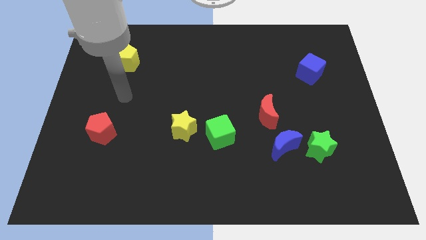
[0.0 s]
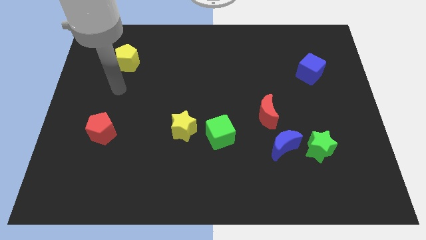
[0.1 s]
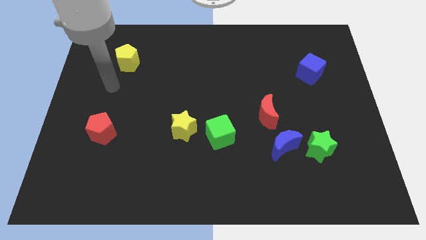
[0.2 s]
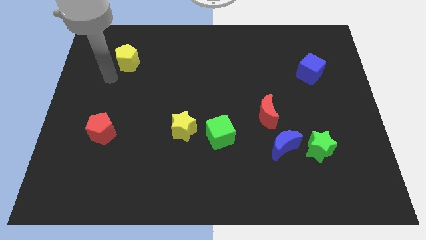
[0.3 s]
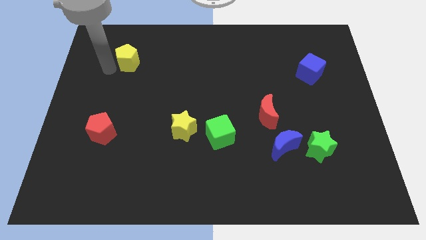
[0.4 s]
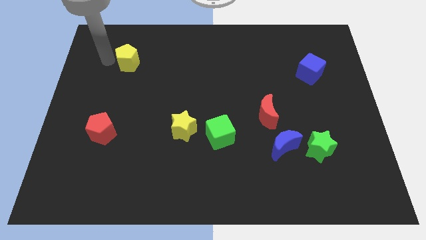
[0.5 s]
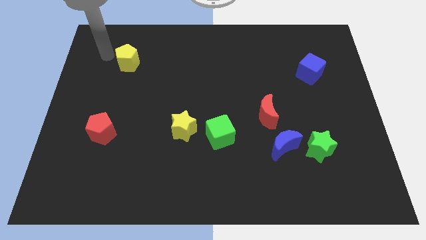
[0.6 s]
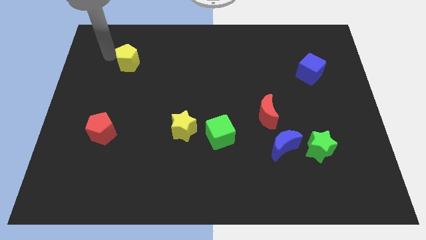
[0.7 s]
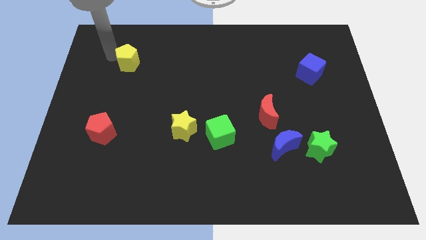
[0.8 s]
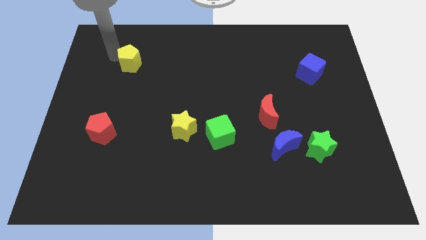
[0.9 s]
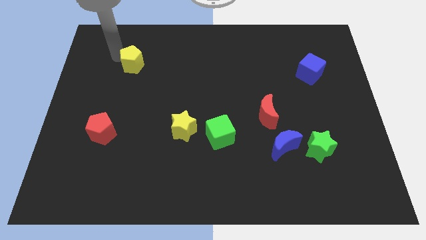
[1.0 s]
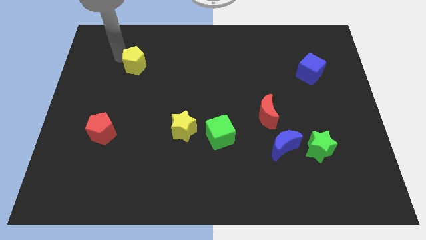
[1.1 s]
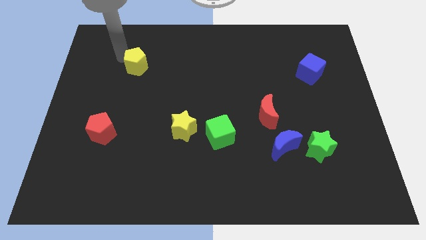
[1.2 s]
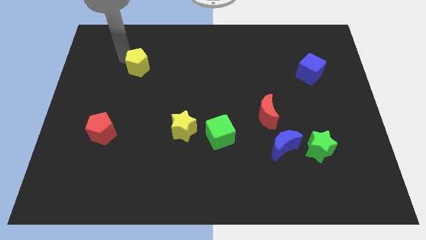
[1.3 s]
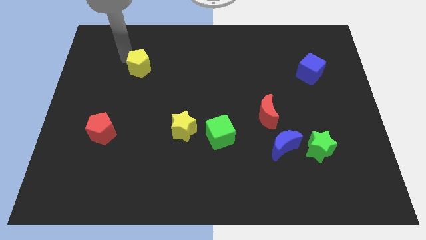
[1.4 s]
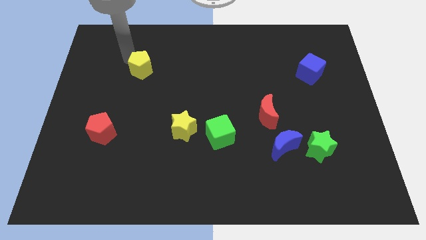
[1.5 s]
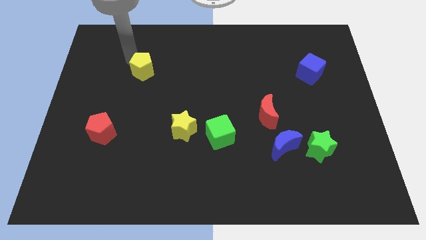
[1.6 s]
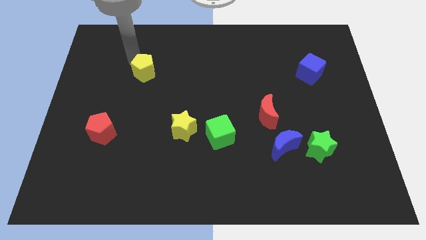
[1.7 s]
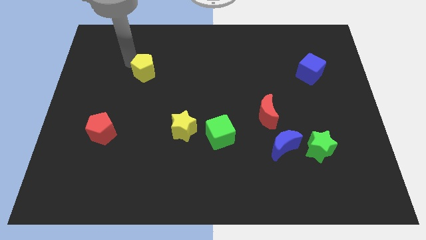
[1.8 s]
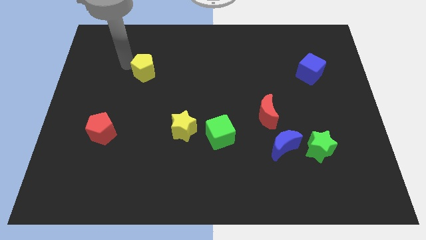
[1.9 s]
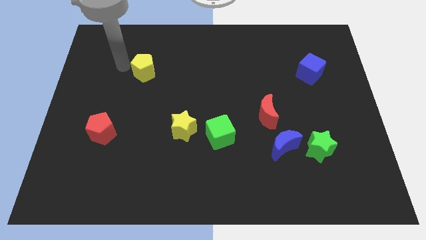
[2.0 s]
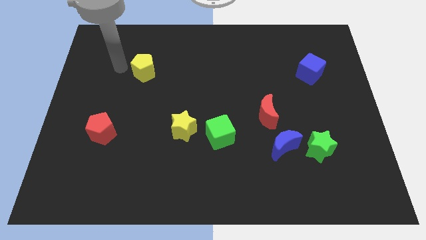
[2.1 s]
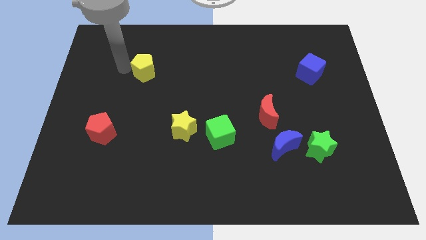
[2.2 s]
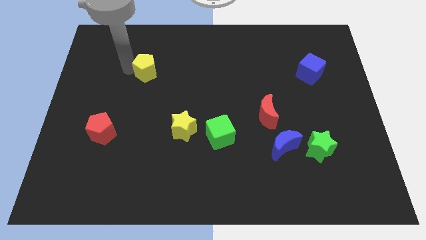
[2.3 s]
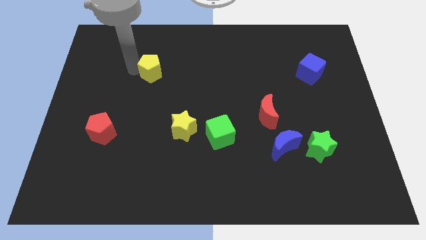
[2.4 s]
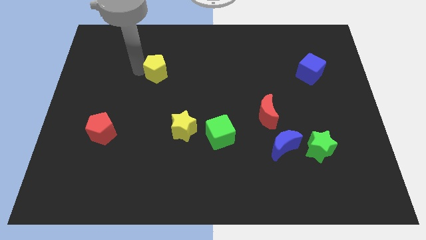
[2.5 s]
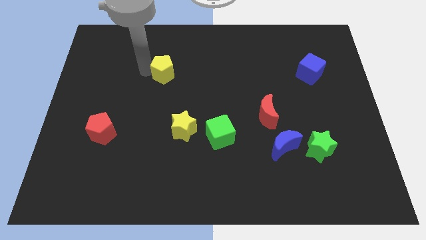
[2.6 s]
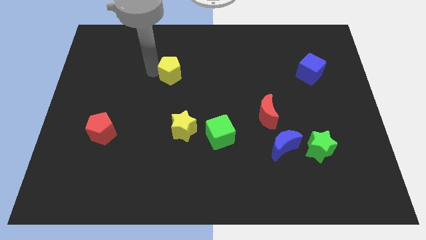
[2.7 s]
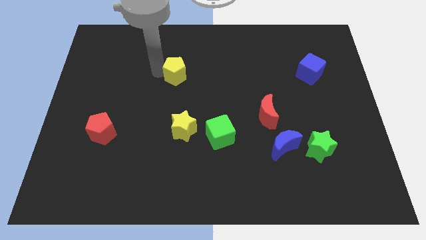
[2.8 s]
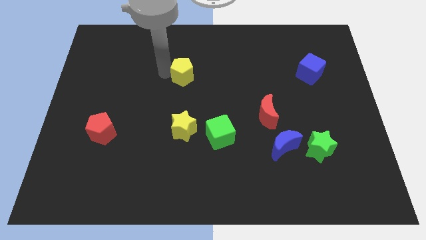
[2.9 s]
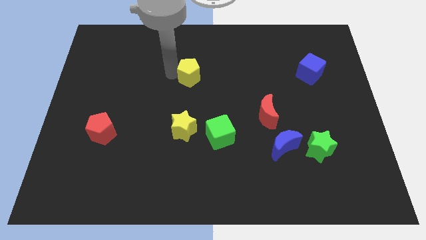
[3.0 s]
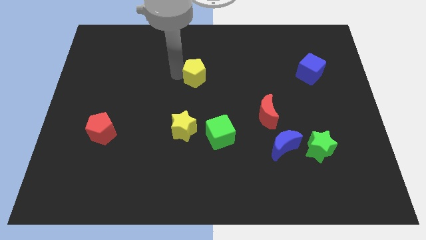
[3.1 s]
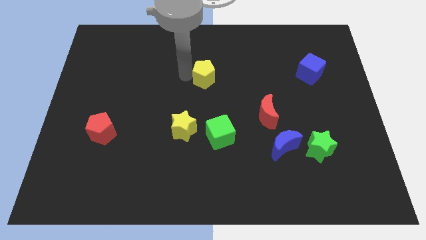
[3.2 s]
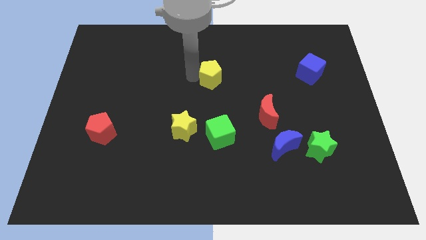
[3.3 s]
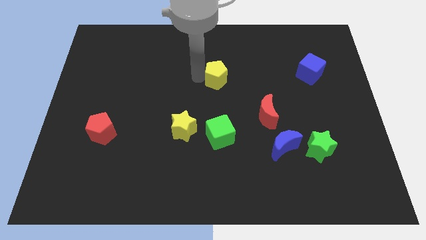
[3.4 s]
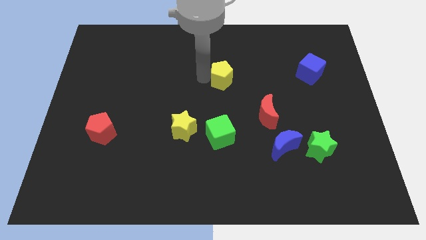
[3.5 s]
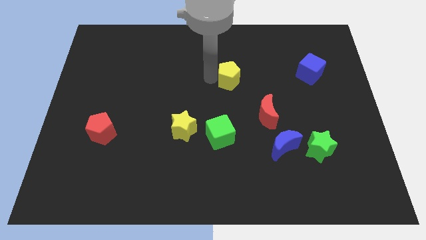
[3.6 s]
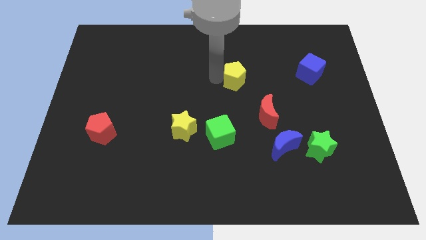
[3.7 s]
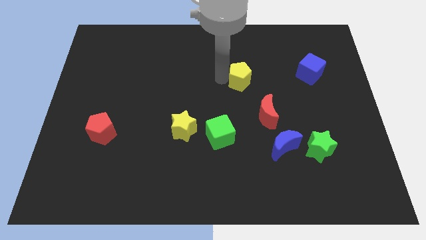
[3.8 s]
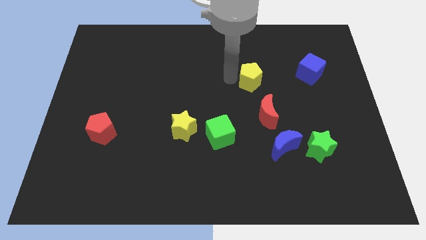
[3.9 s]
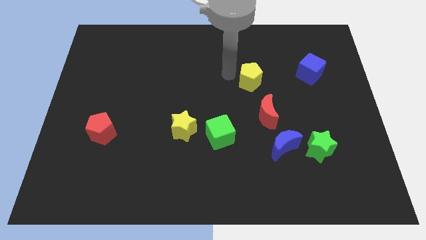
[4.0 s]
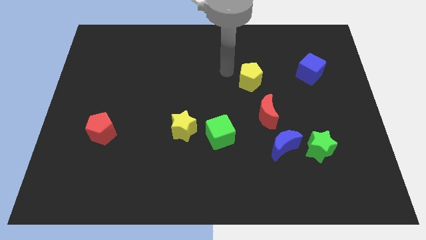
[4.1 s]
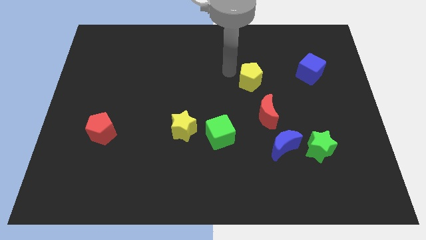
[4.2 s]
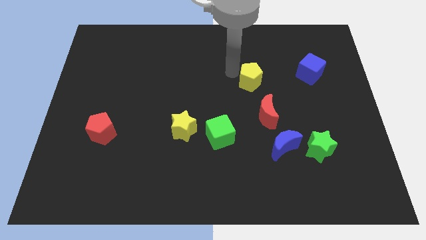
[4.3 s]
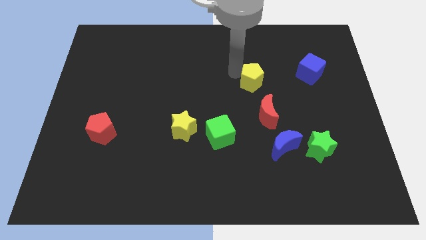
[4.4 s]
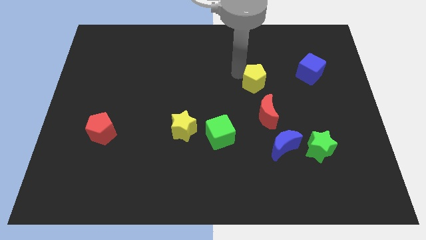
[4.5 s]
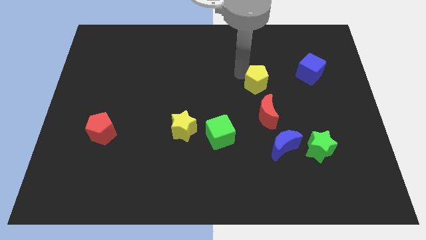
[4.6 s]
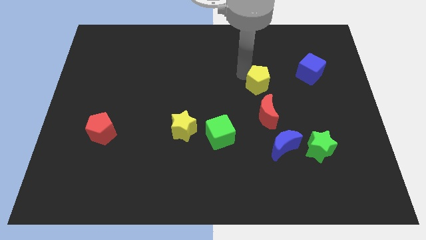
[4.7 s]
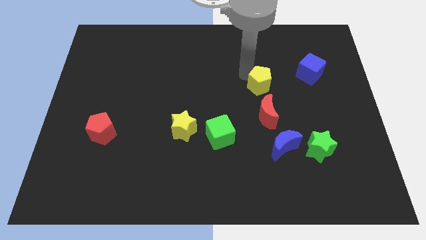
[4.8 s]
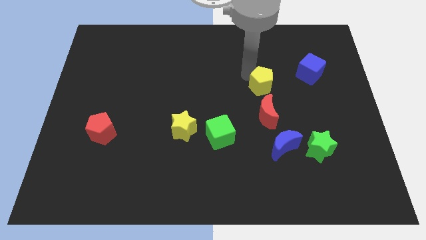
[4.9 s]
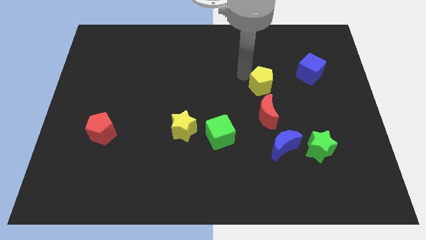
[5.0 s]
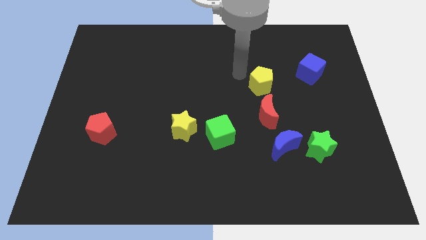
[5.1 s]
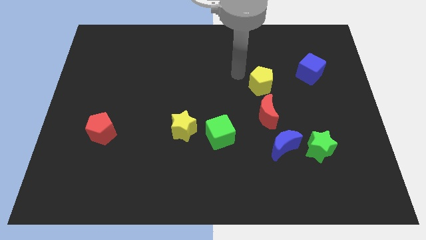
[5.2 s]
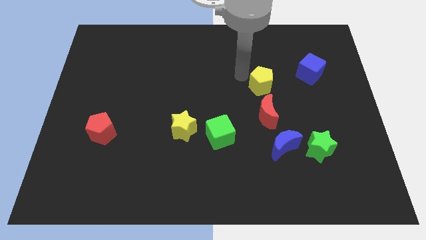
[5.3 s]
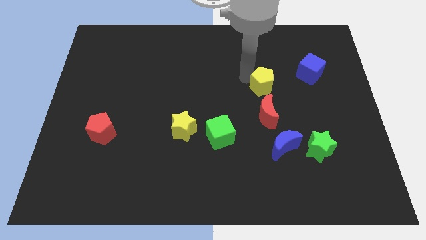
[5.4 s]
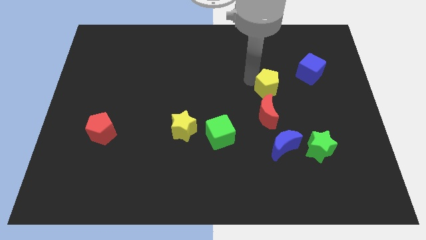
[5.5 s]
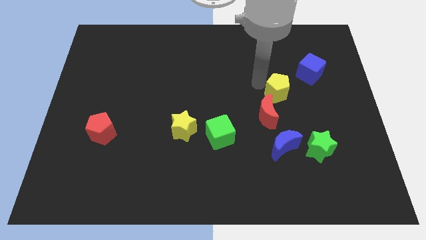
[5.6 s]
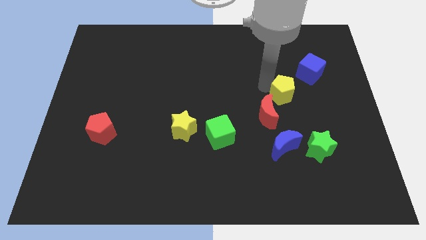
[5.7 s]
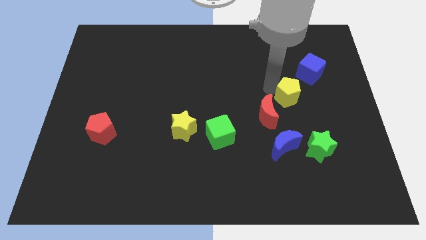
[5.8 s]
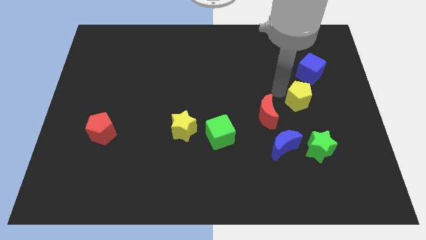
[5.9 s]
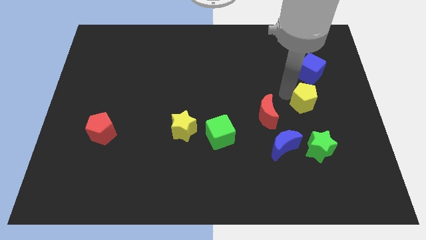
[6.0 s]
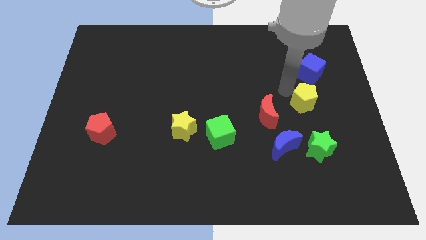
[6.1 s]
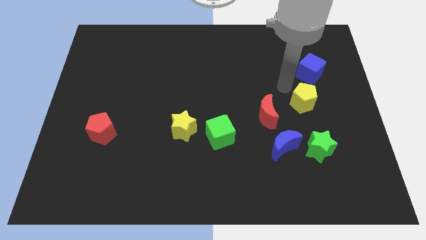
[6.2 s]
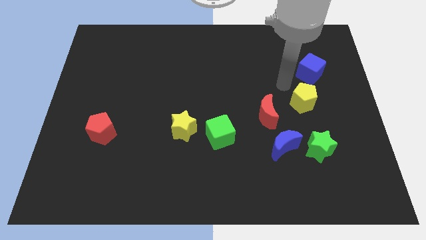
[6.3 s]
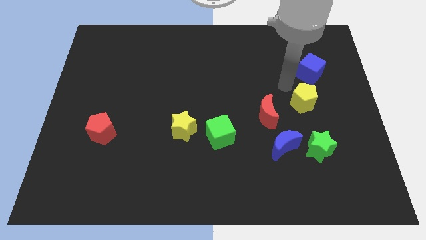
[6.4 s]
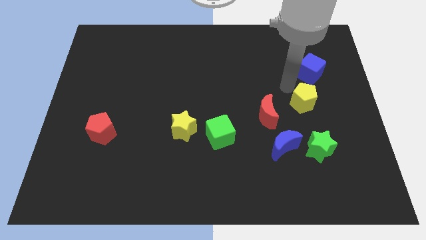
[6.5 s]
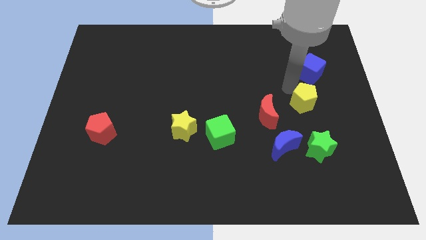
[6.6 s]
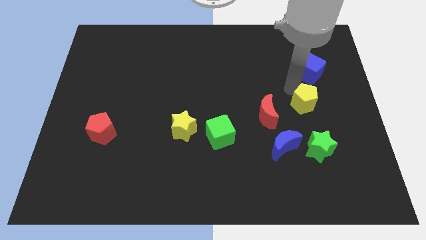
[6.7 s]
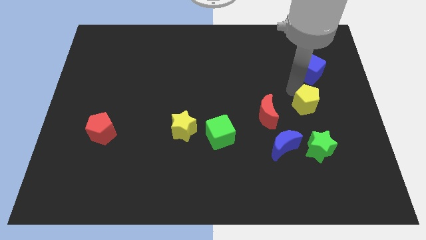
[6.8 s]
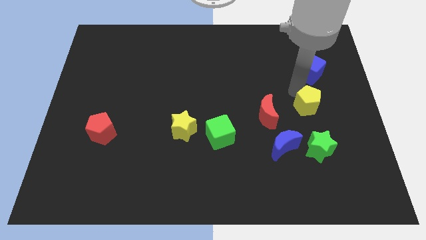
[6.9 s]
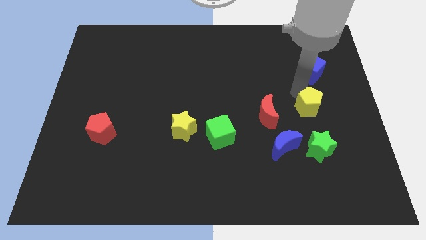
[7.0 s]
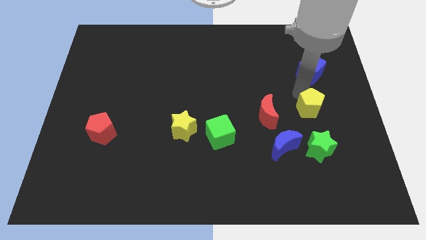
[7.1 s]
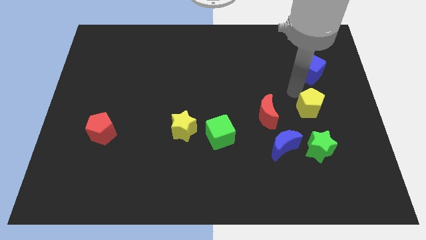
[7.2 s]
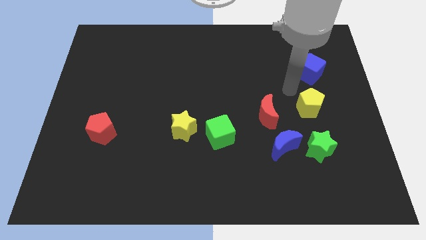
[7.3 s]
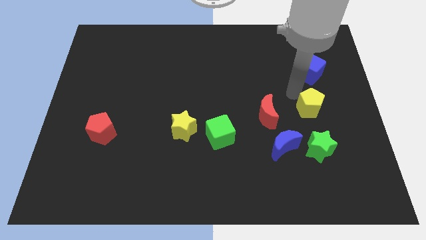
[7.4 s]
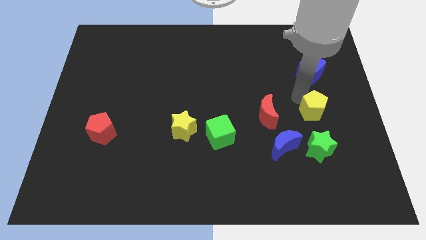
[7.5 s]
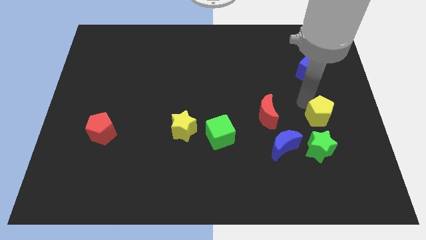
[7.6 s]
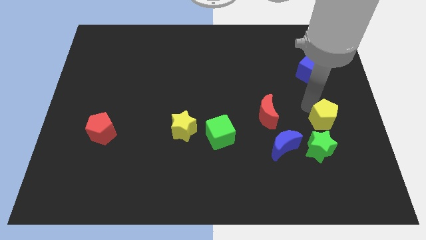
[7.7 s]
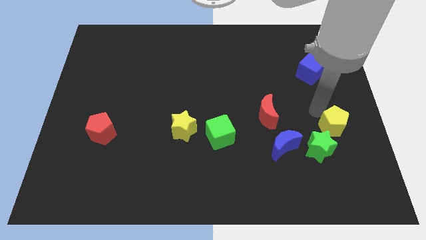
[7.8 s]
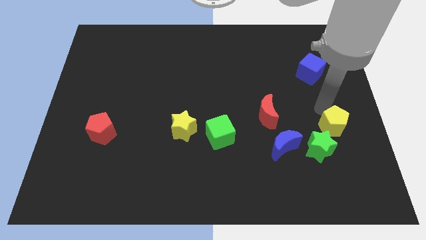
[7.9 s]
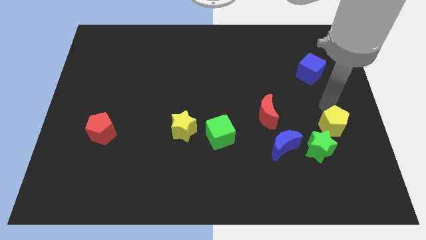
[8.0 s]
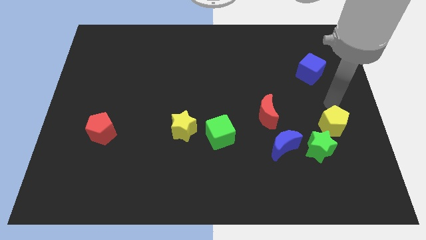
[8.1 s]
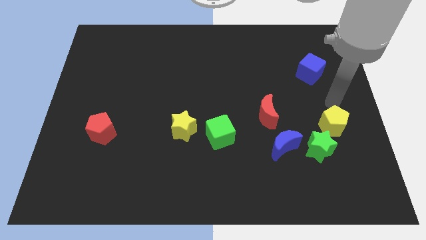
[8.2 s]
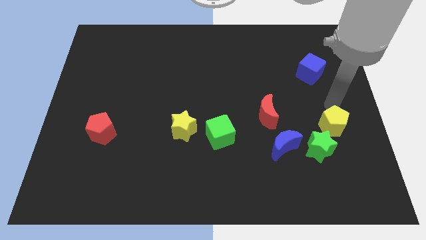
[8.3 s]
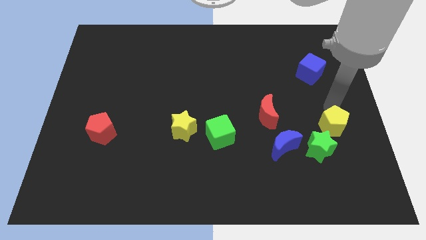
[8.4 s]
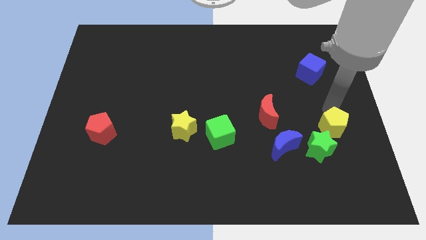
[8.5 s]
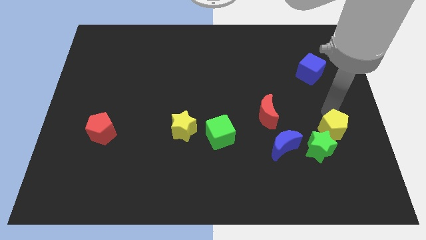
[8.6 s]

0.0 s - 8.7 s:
slide the yellow pentagon right of the blue moon
